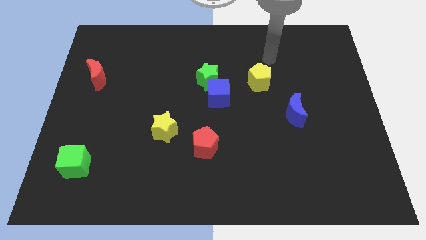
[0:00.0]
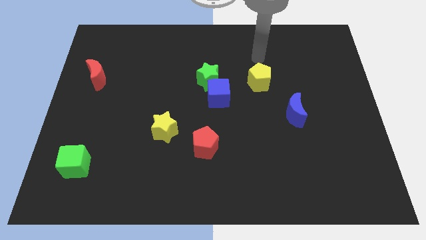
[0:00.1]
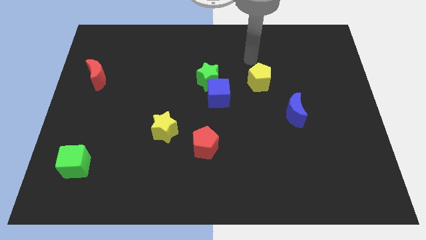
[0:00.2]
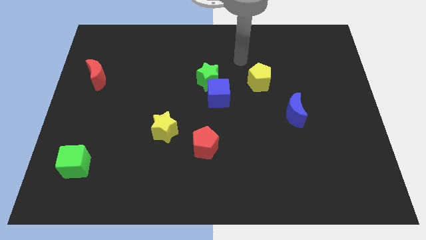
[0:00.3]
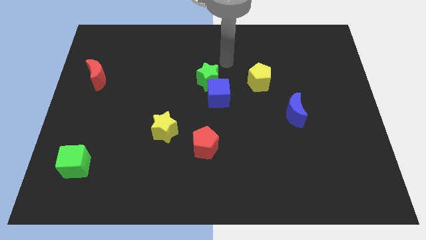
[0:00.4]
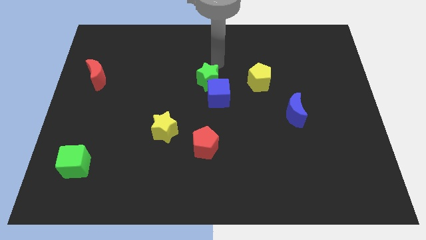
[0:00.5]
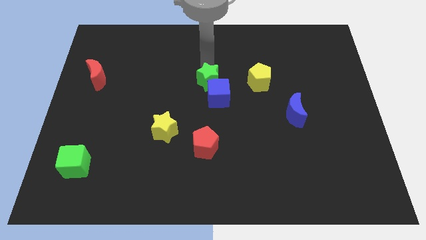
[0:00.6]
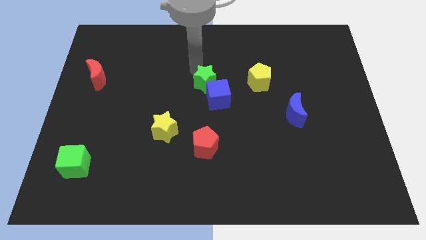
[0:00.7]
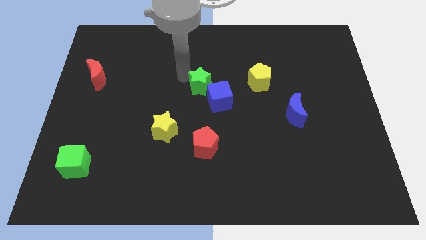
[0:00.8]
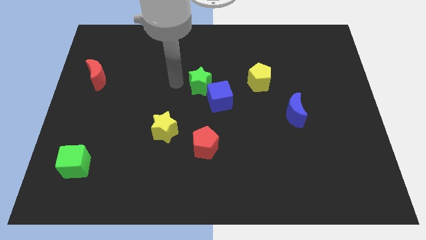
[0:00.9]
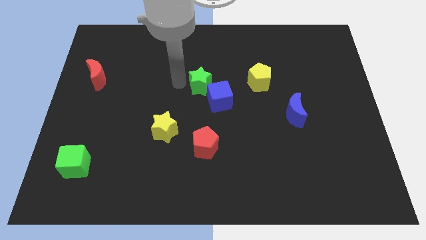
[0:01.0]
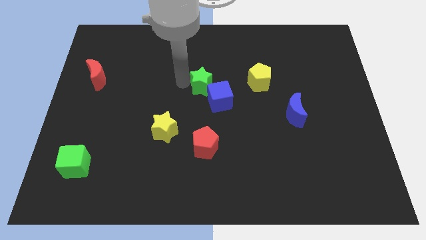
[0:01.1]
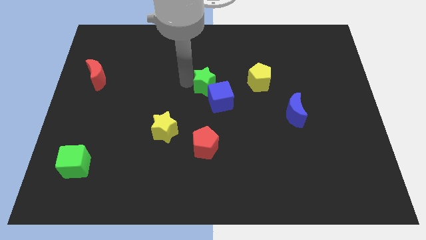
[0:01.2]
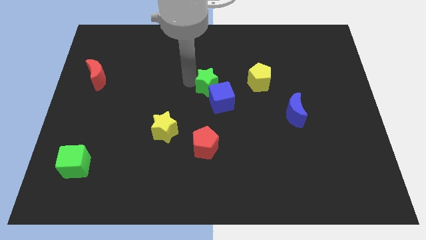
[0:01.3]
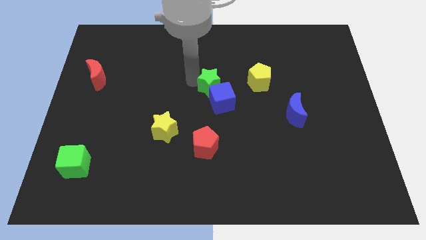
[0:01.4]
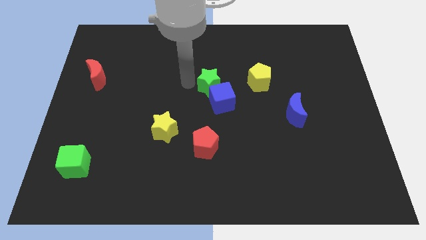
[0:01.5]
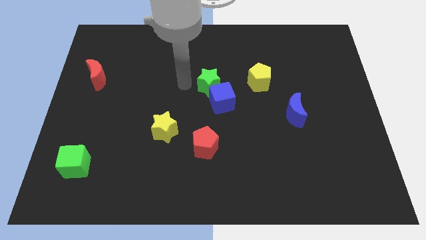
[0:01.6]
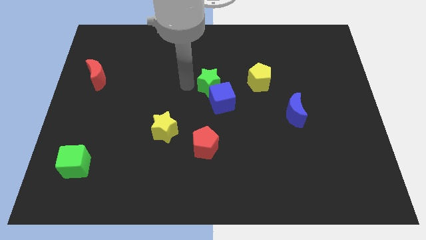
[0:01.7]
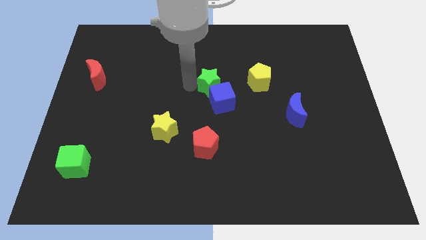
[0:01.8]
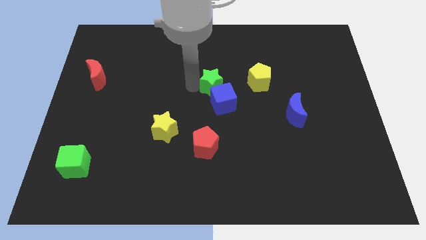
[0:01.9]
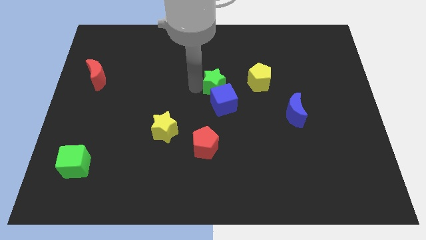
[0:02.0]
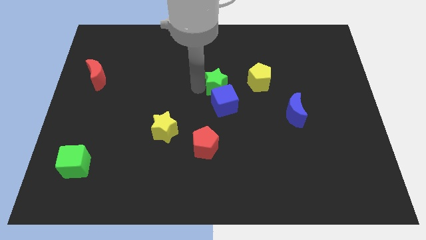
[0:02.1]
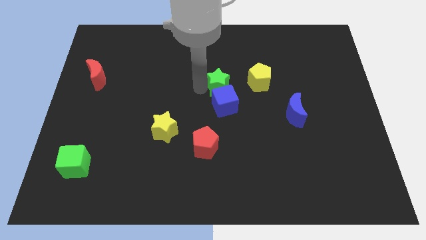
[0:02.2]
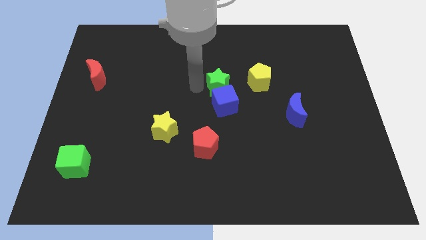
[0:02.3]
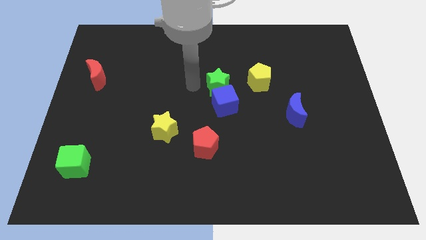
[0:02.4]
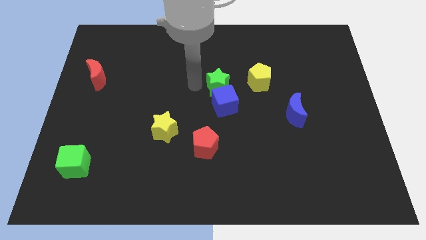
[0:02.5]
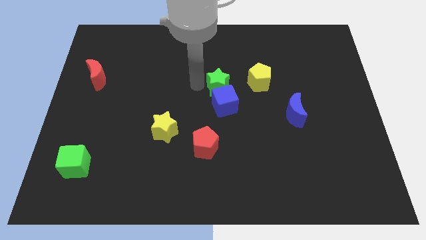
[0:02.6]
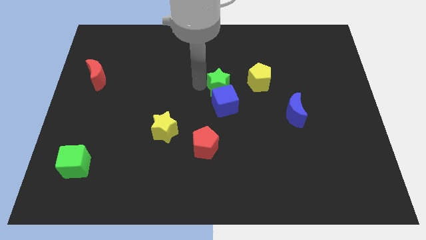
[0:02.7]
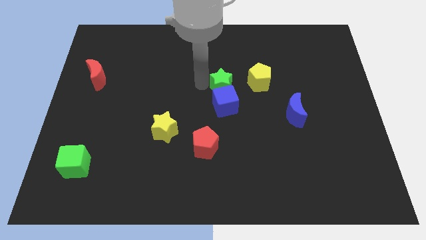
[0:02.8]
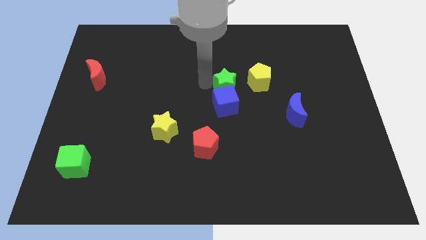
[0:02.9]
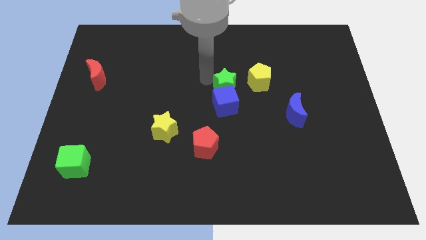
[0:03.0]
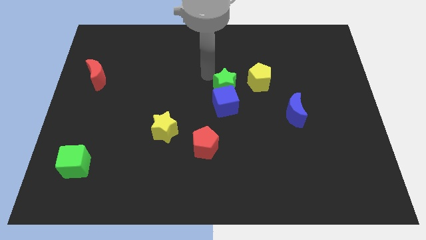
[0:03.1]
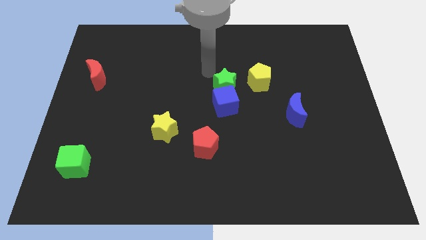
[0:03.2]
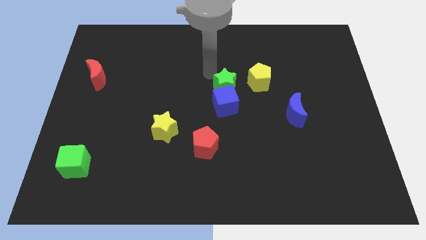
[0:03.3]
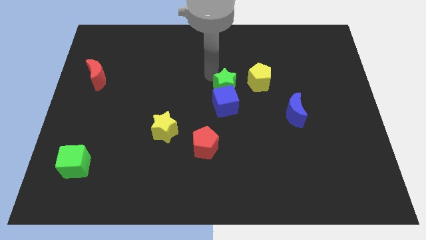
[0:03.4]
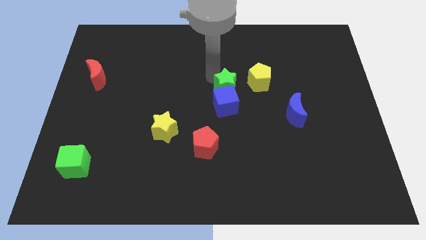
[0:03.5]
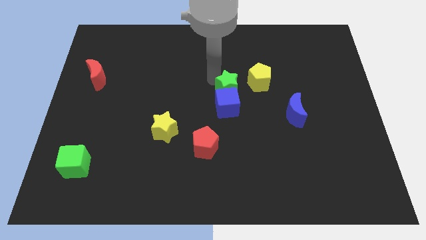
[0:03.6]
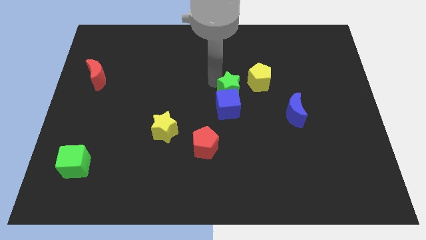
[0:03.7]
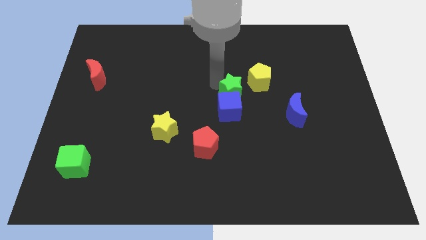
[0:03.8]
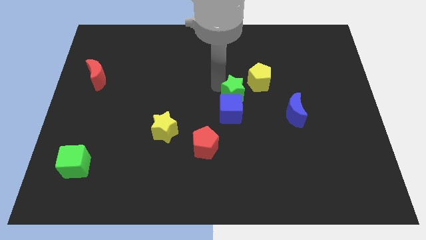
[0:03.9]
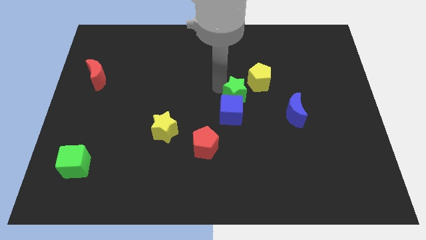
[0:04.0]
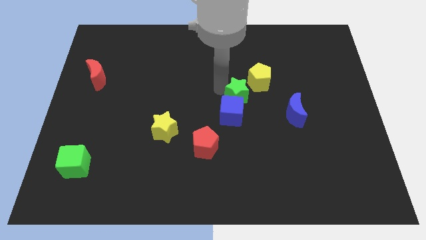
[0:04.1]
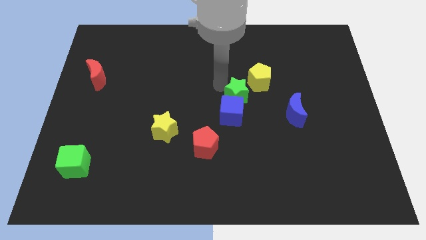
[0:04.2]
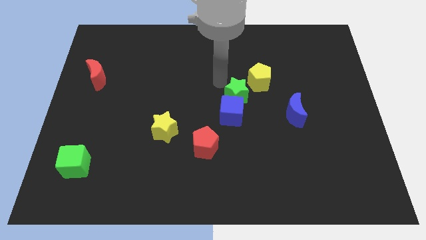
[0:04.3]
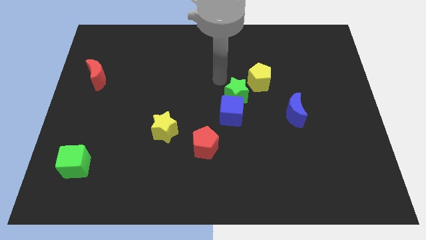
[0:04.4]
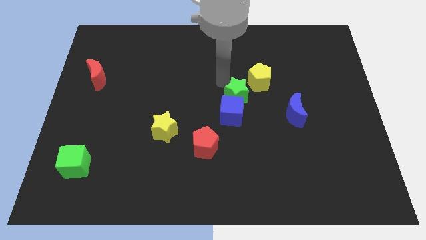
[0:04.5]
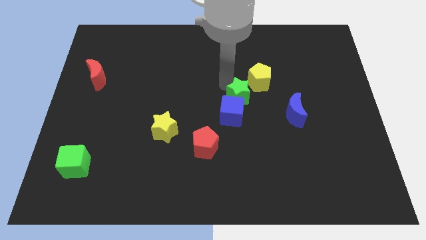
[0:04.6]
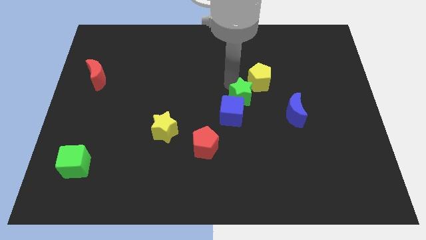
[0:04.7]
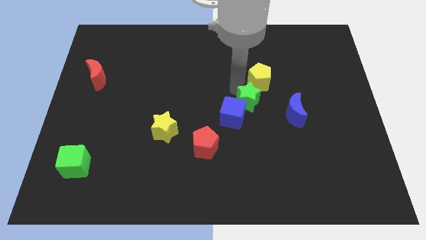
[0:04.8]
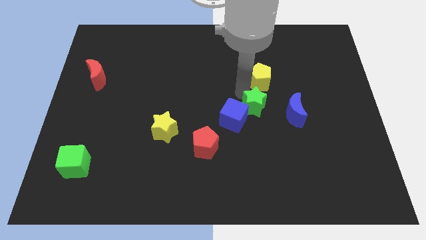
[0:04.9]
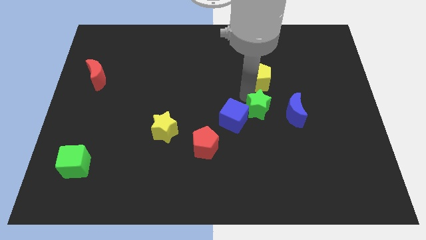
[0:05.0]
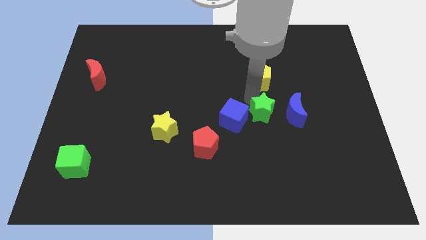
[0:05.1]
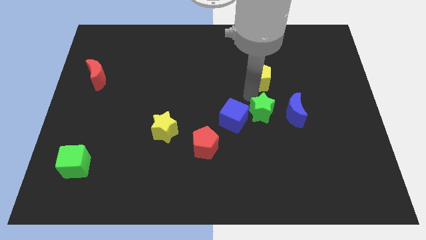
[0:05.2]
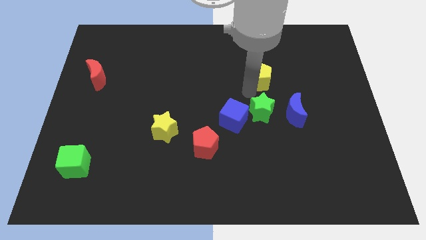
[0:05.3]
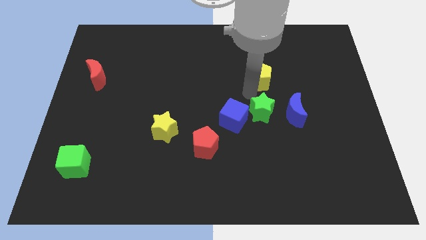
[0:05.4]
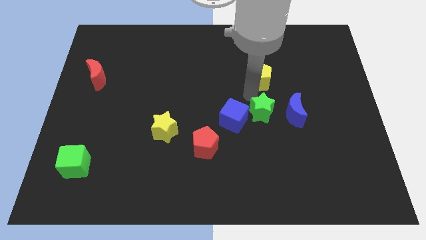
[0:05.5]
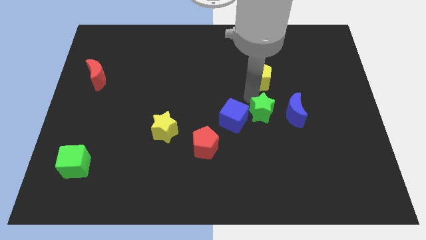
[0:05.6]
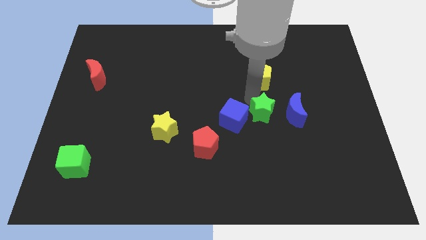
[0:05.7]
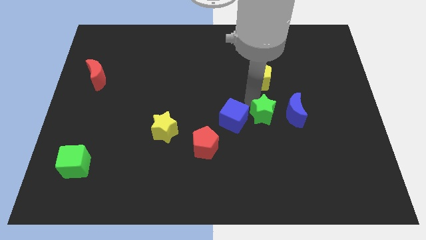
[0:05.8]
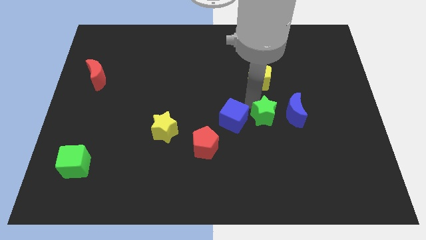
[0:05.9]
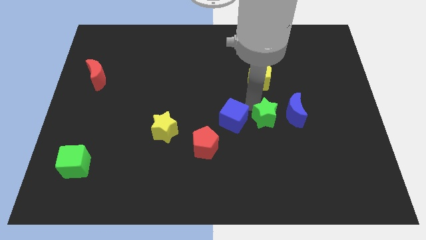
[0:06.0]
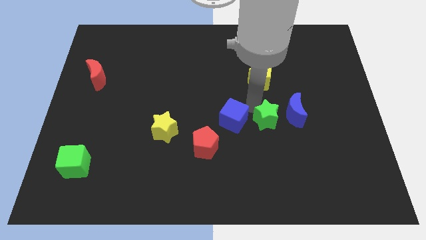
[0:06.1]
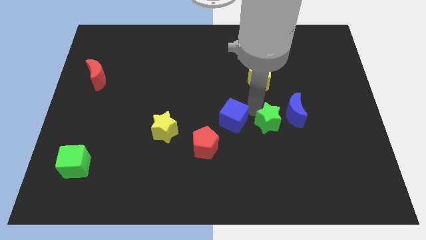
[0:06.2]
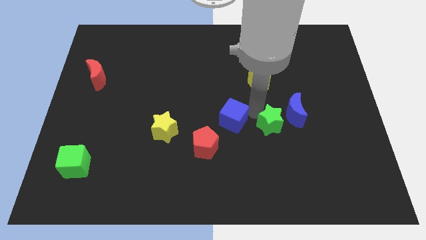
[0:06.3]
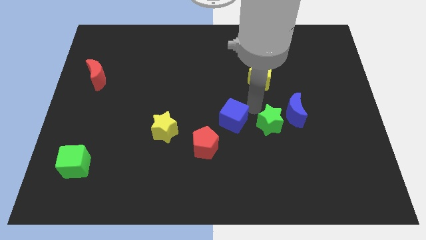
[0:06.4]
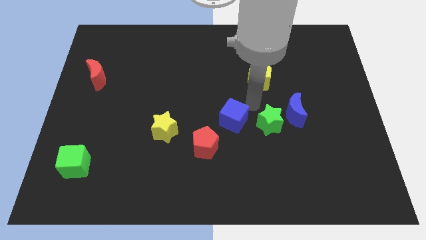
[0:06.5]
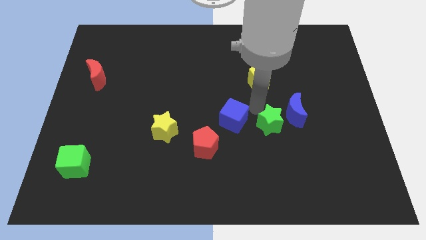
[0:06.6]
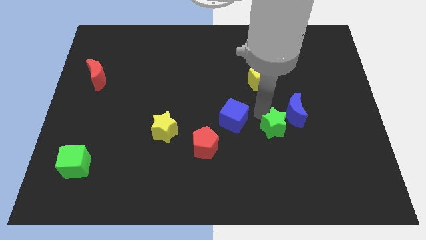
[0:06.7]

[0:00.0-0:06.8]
move the green star down and right

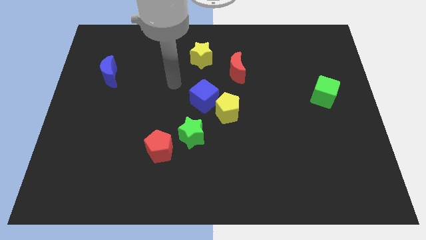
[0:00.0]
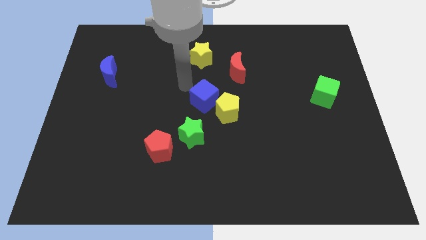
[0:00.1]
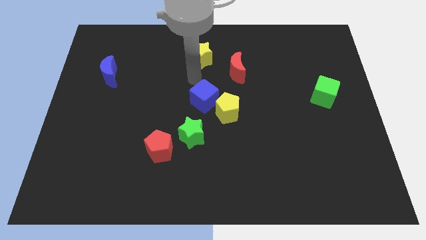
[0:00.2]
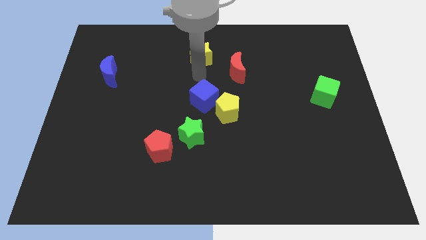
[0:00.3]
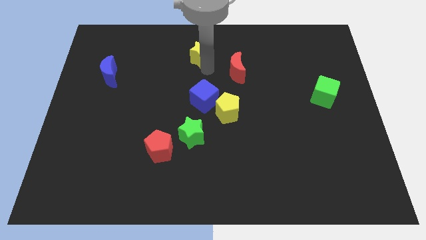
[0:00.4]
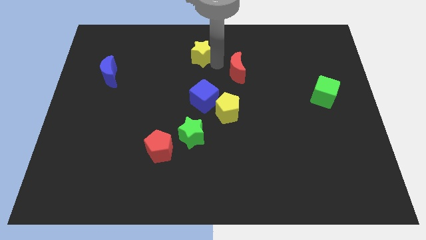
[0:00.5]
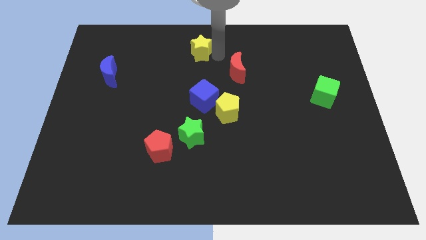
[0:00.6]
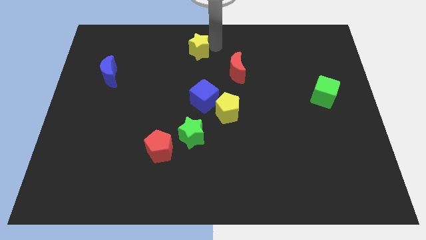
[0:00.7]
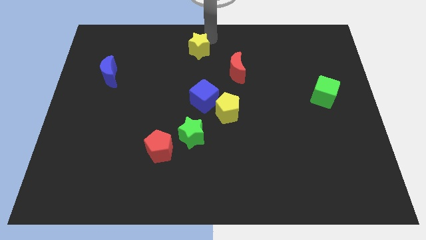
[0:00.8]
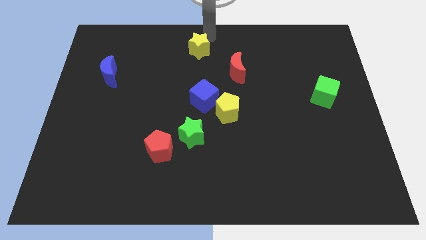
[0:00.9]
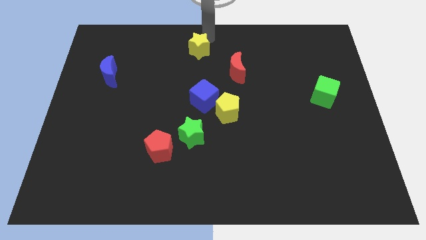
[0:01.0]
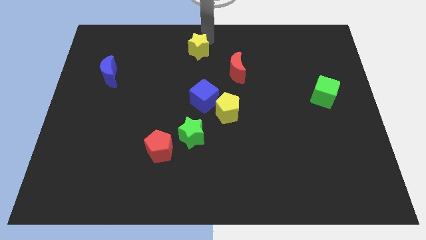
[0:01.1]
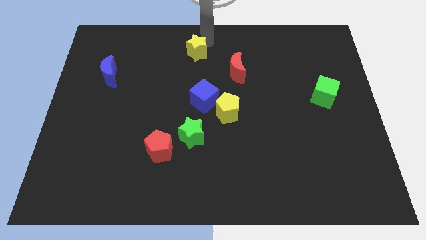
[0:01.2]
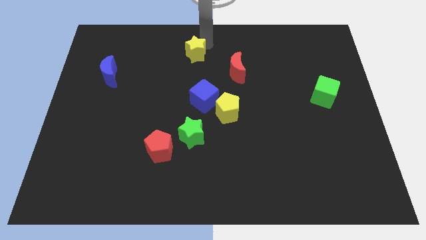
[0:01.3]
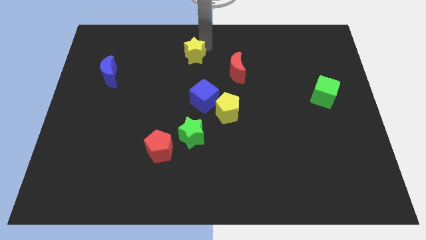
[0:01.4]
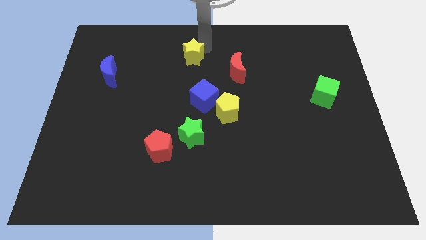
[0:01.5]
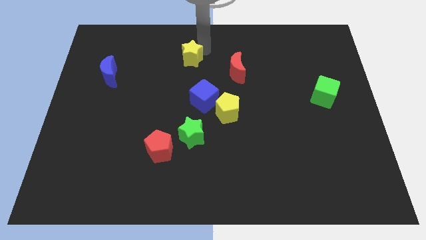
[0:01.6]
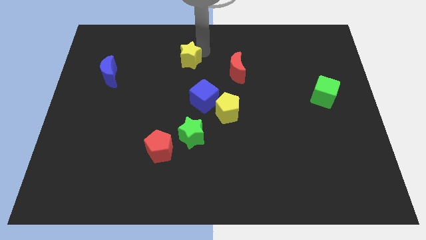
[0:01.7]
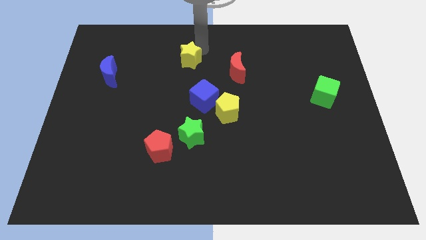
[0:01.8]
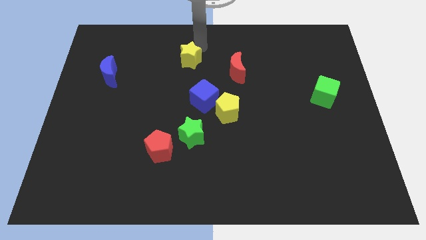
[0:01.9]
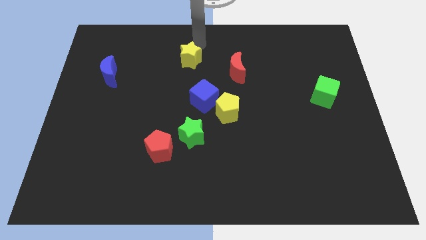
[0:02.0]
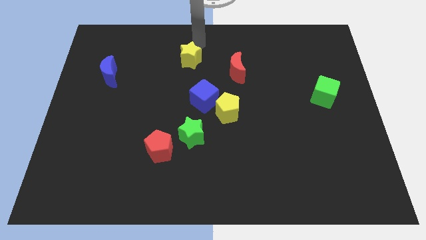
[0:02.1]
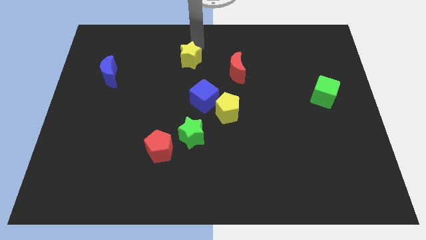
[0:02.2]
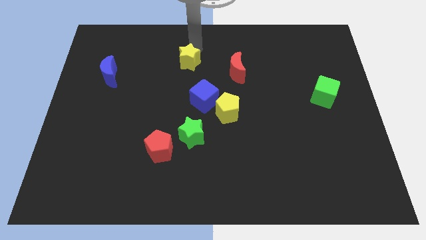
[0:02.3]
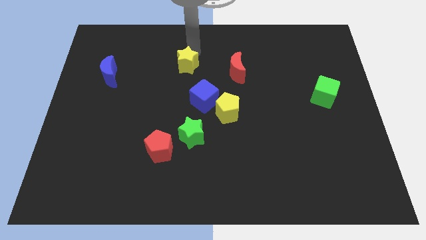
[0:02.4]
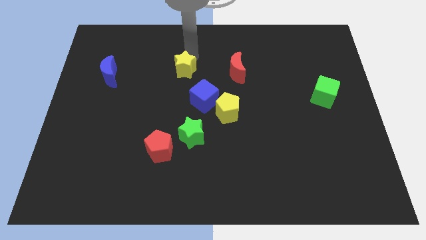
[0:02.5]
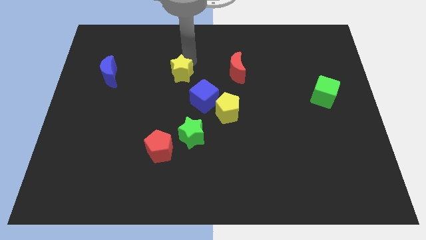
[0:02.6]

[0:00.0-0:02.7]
slightly slide the yellow star down and left diagonally
